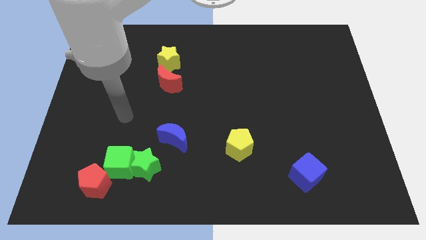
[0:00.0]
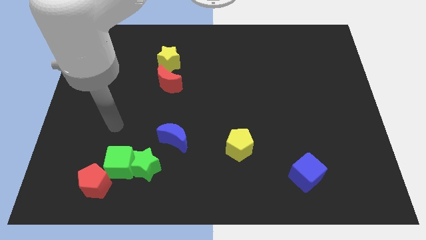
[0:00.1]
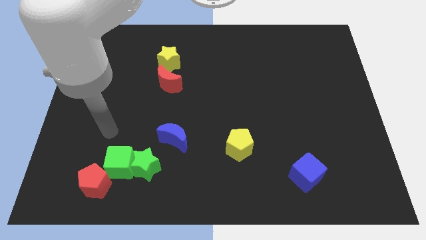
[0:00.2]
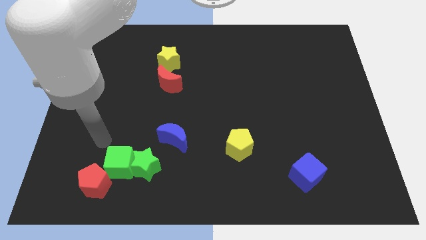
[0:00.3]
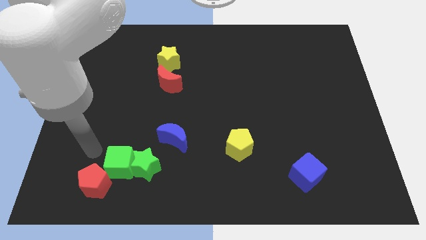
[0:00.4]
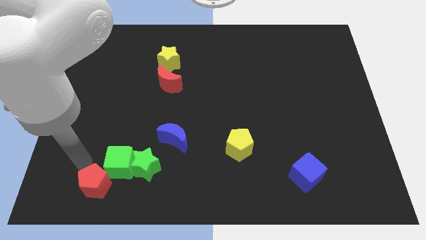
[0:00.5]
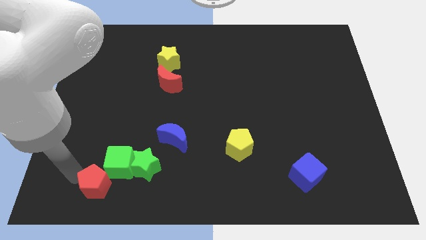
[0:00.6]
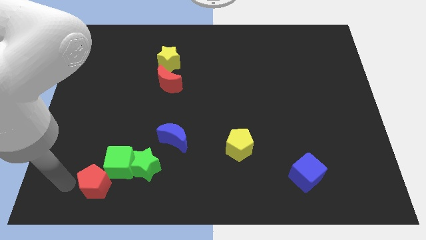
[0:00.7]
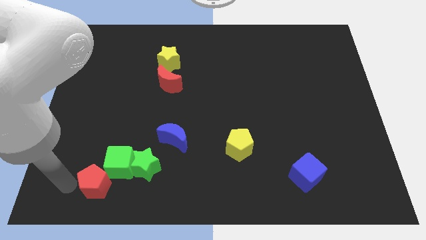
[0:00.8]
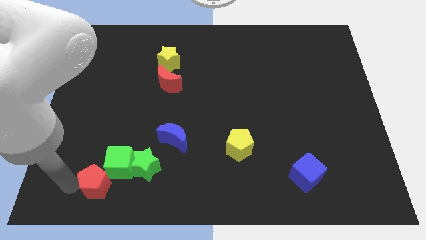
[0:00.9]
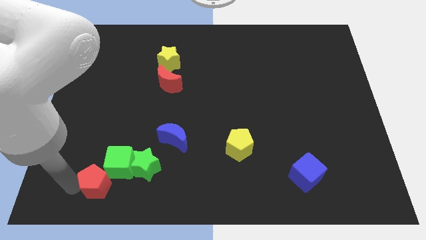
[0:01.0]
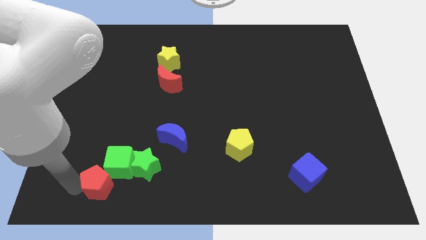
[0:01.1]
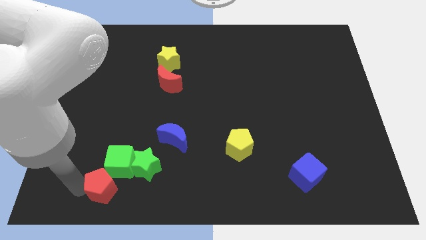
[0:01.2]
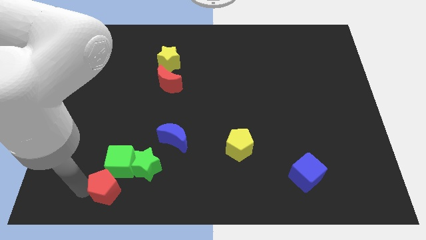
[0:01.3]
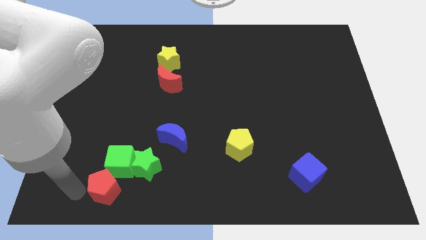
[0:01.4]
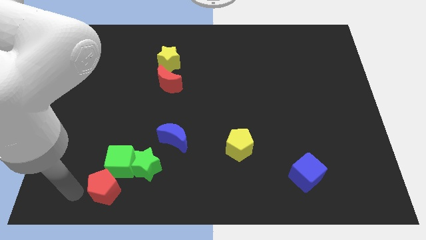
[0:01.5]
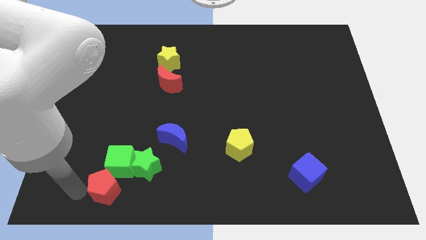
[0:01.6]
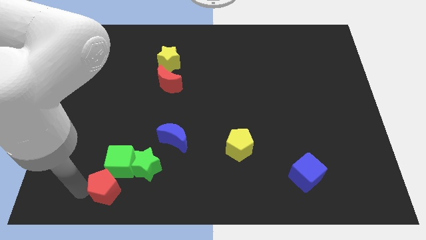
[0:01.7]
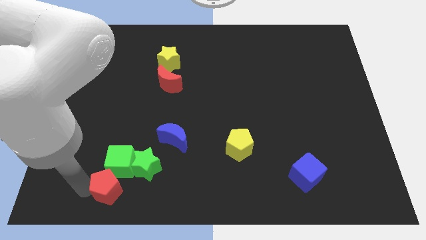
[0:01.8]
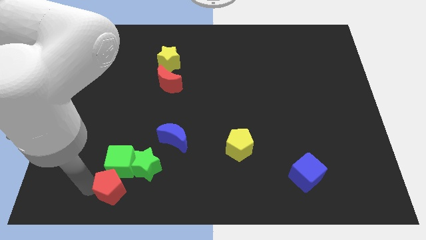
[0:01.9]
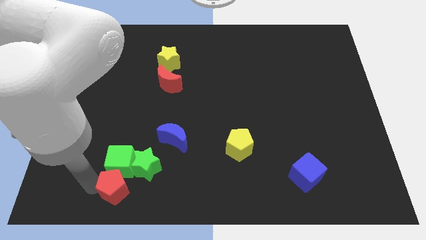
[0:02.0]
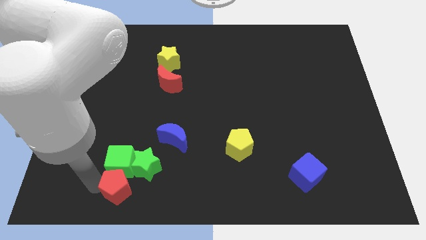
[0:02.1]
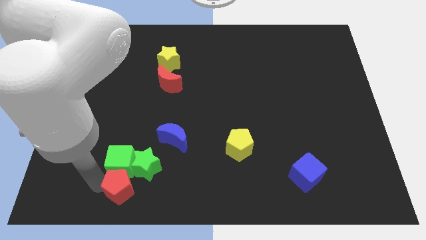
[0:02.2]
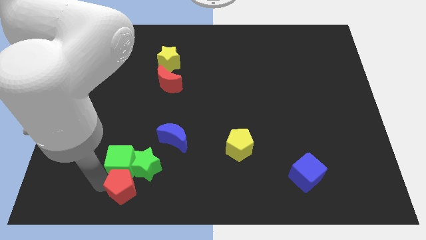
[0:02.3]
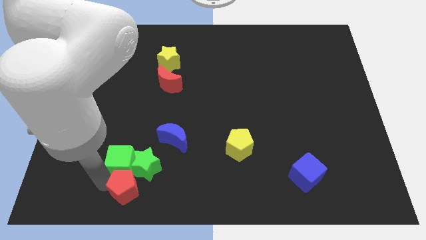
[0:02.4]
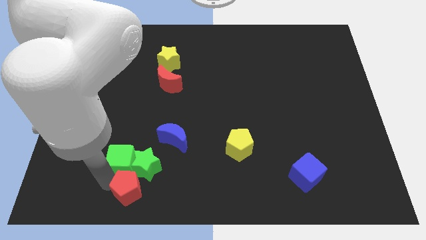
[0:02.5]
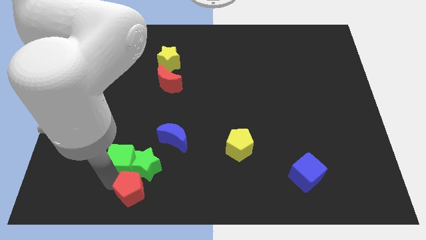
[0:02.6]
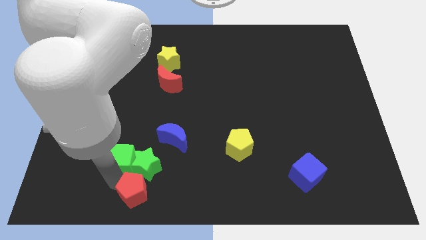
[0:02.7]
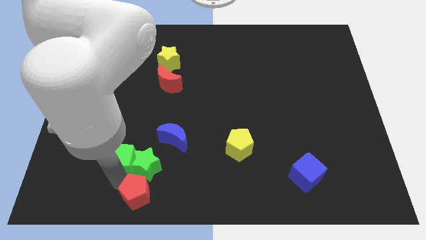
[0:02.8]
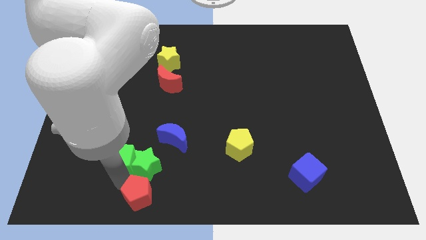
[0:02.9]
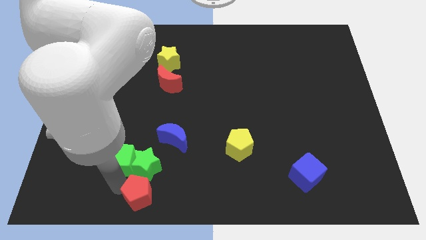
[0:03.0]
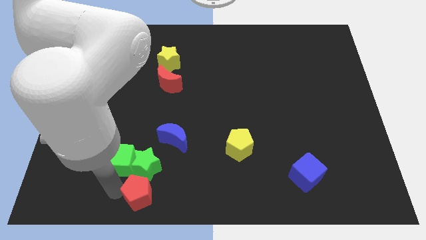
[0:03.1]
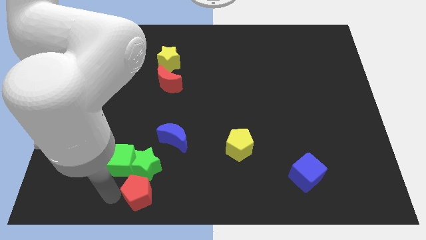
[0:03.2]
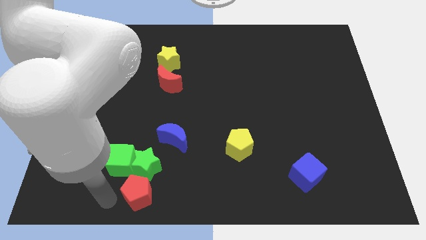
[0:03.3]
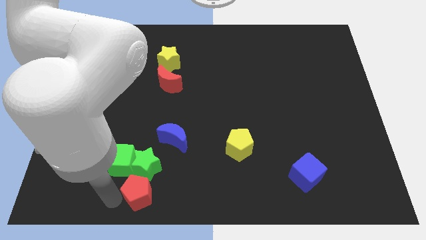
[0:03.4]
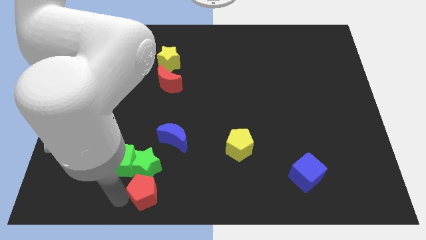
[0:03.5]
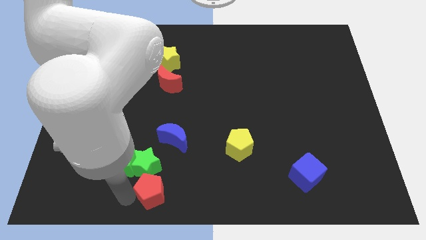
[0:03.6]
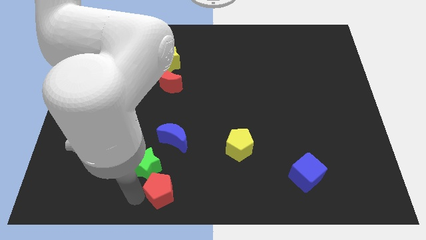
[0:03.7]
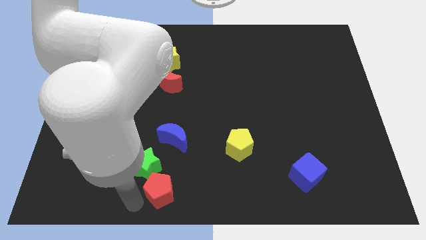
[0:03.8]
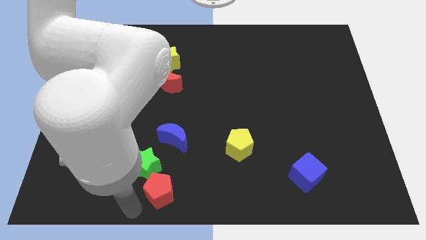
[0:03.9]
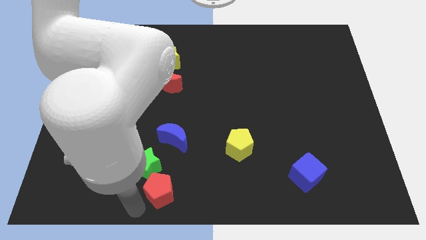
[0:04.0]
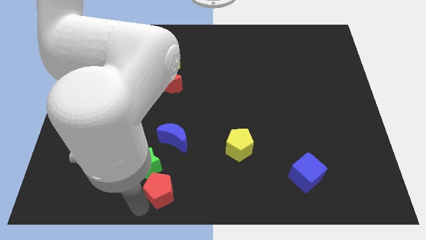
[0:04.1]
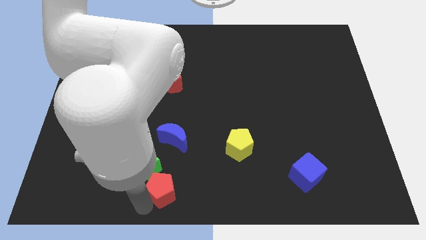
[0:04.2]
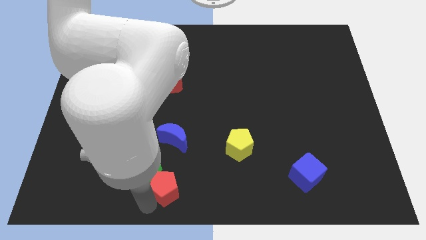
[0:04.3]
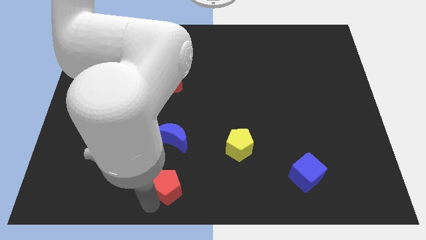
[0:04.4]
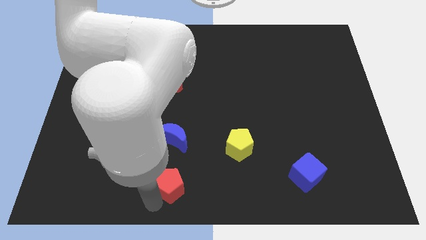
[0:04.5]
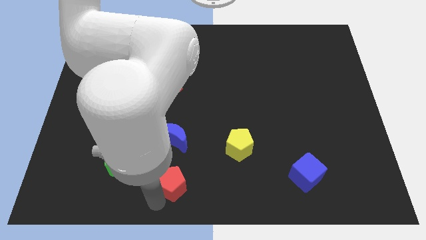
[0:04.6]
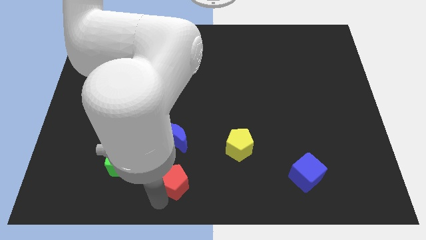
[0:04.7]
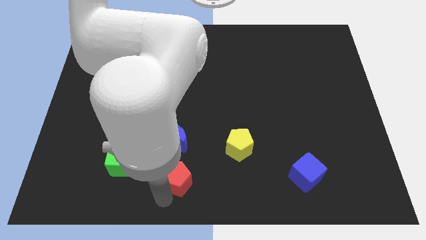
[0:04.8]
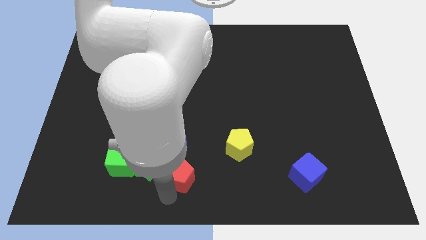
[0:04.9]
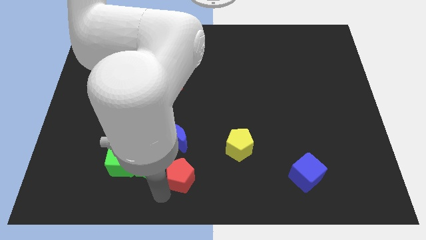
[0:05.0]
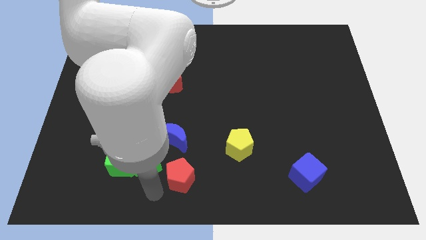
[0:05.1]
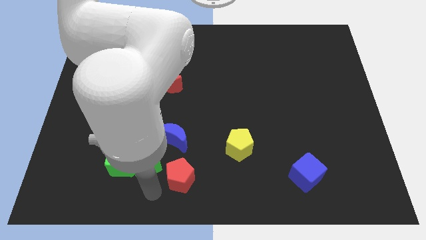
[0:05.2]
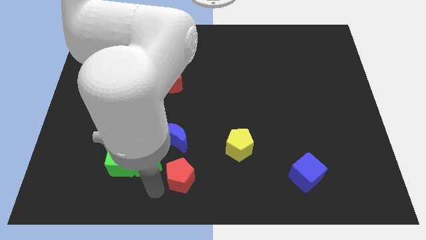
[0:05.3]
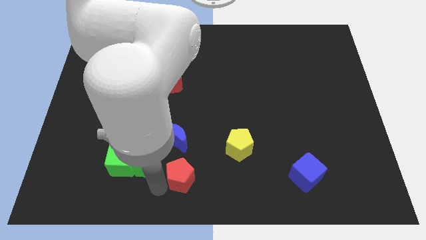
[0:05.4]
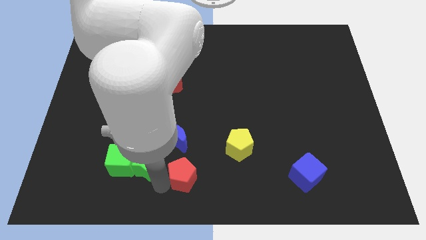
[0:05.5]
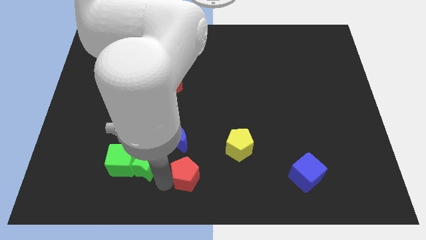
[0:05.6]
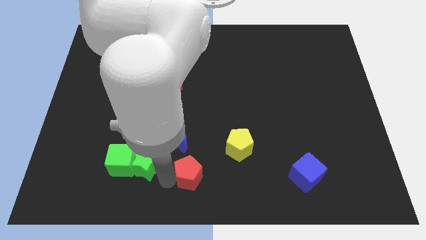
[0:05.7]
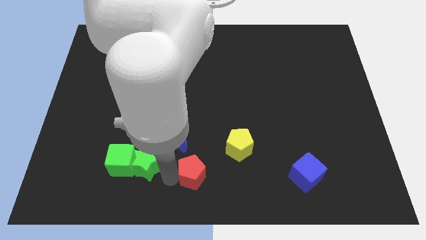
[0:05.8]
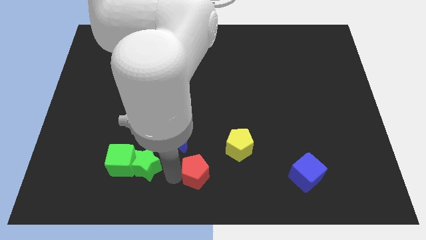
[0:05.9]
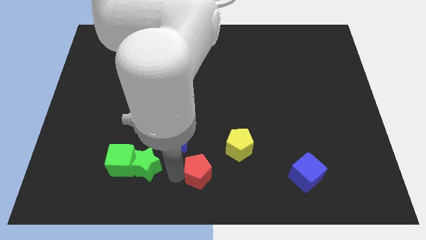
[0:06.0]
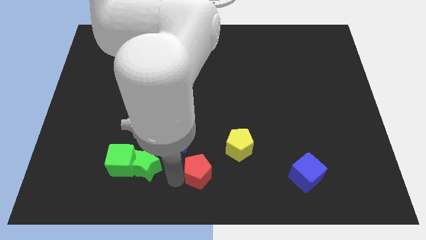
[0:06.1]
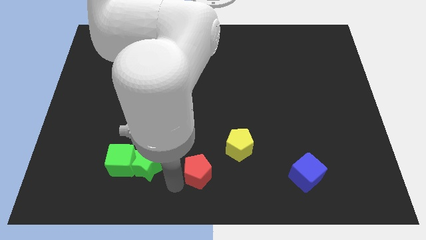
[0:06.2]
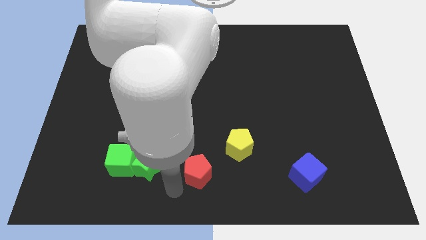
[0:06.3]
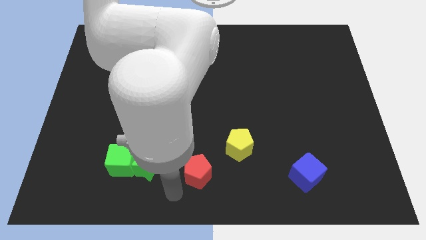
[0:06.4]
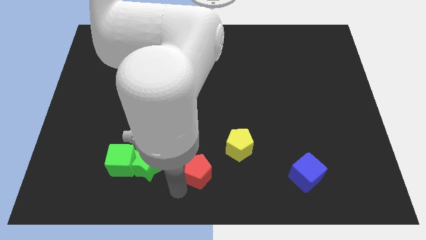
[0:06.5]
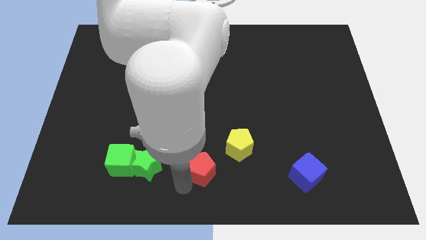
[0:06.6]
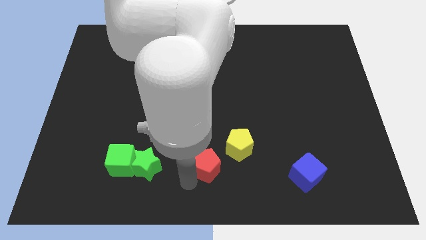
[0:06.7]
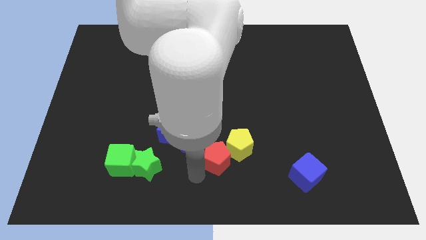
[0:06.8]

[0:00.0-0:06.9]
move the red pentagon towards the yellow pentagon

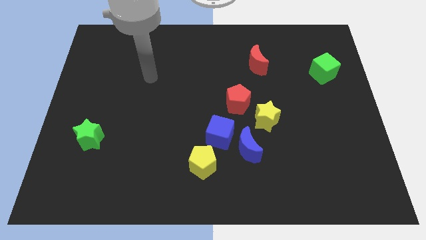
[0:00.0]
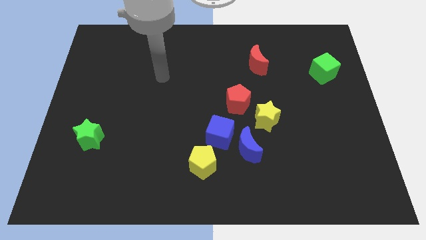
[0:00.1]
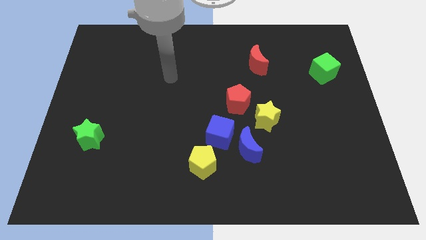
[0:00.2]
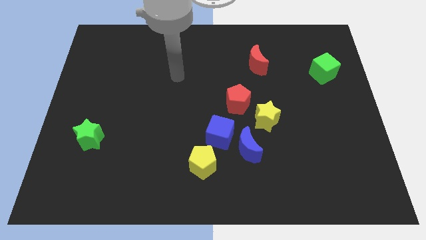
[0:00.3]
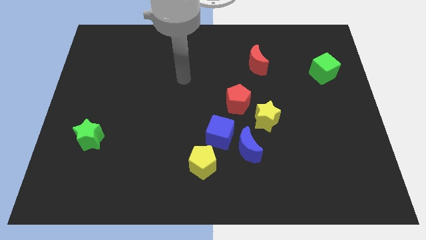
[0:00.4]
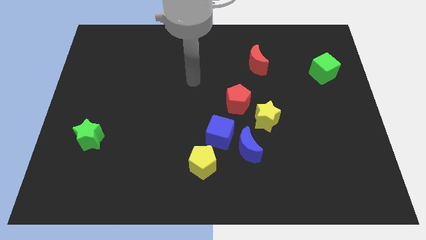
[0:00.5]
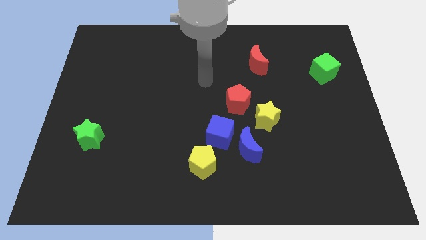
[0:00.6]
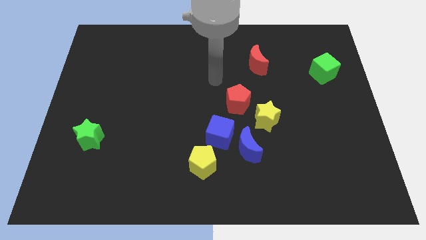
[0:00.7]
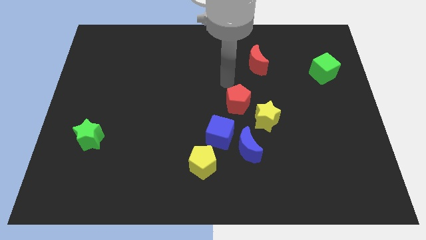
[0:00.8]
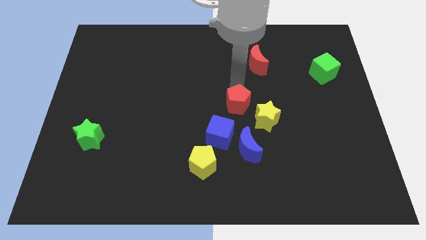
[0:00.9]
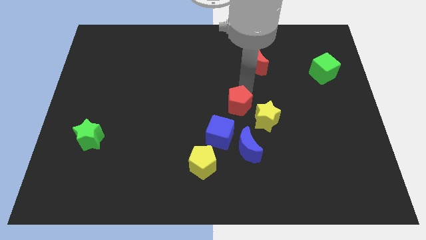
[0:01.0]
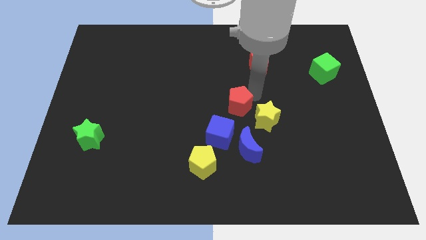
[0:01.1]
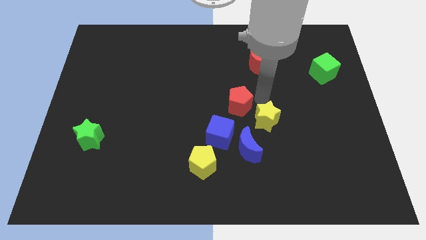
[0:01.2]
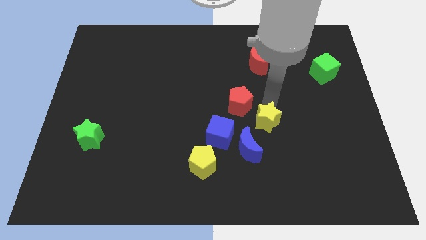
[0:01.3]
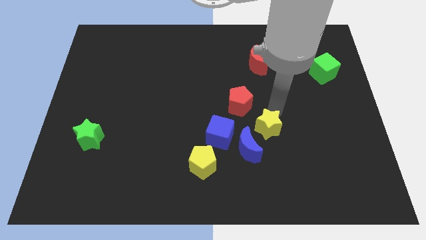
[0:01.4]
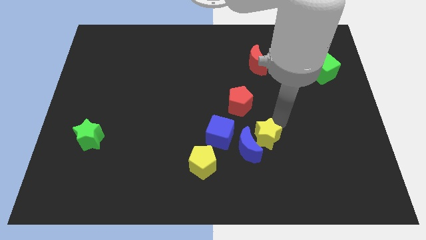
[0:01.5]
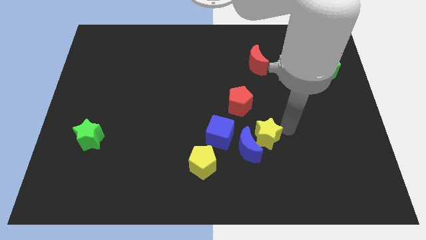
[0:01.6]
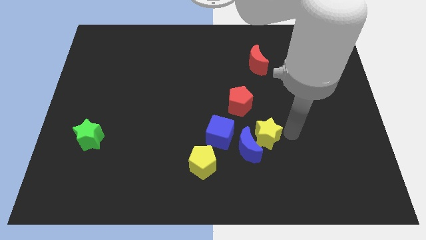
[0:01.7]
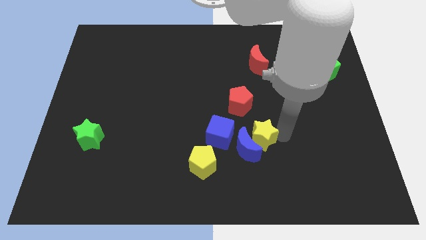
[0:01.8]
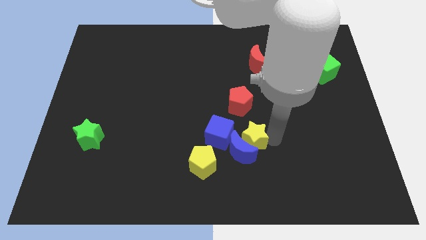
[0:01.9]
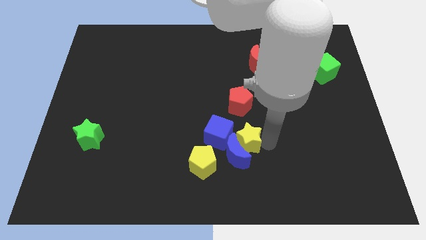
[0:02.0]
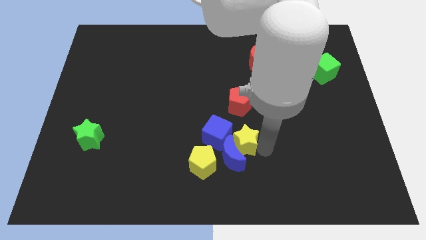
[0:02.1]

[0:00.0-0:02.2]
push the blue moon next to the yellow pentagon
